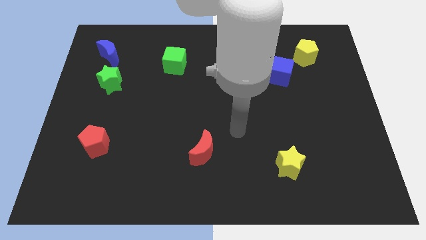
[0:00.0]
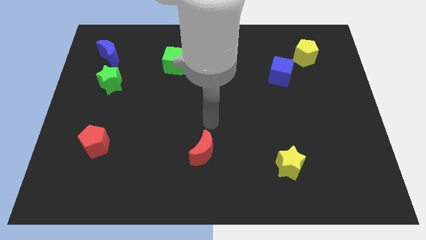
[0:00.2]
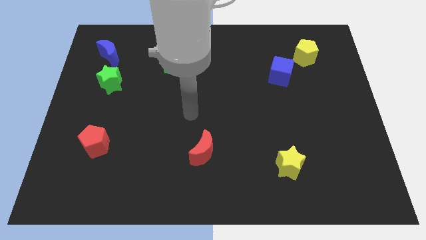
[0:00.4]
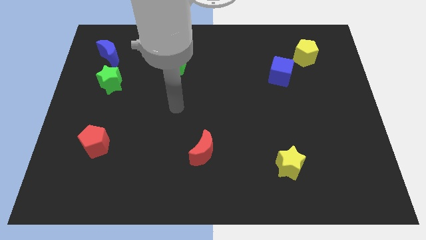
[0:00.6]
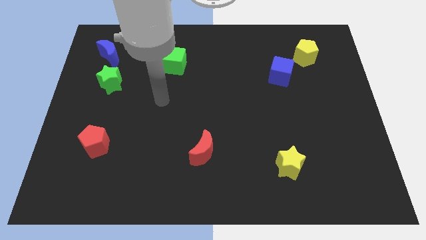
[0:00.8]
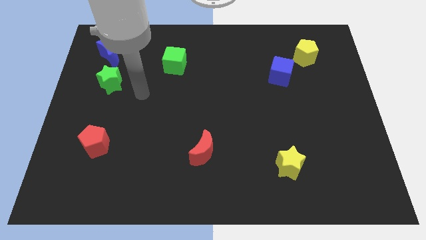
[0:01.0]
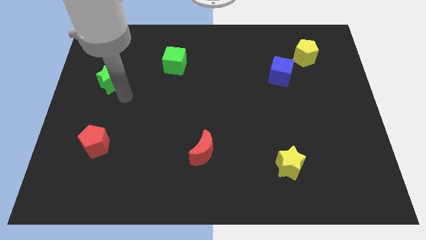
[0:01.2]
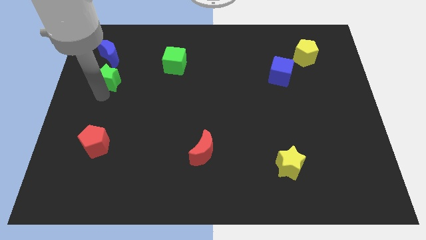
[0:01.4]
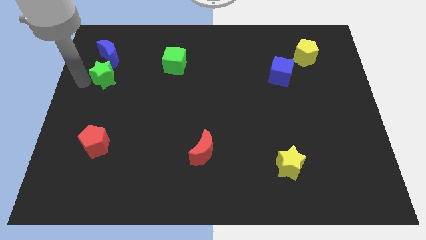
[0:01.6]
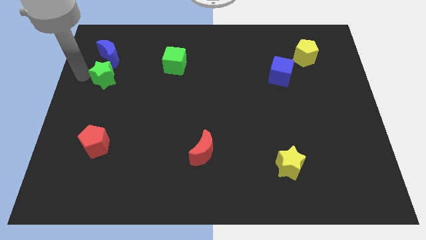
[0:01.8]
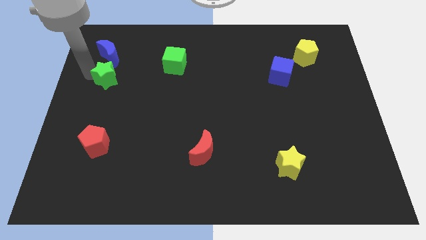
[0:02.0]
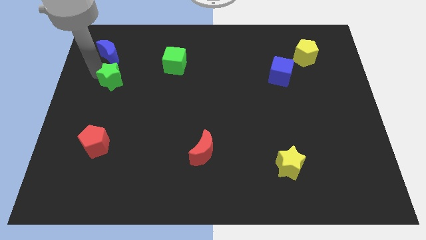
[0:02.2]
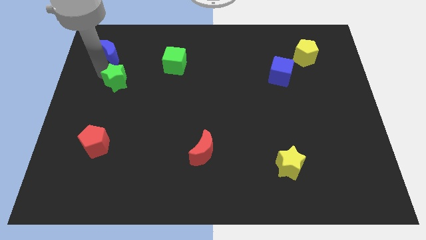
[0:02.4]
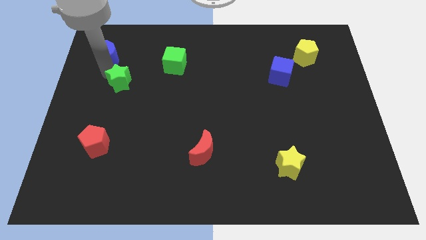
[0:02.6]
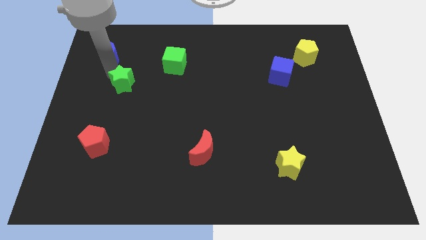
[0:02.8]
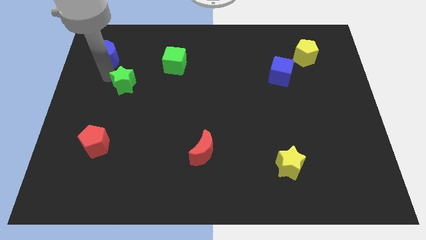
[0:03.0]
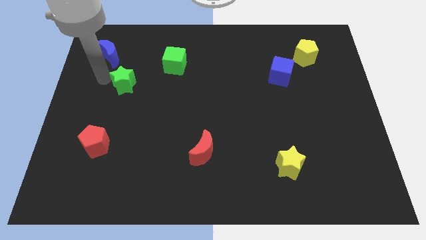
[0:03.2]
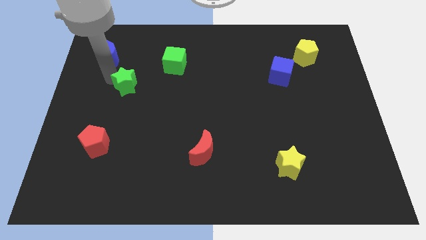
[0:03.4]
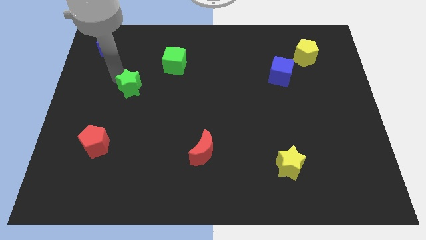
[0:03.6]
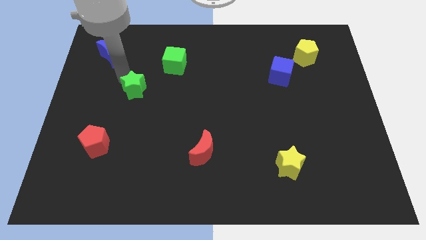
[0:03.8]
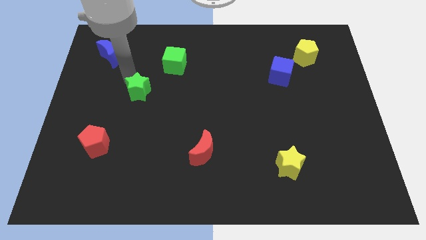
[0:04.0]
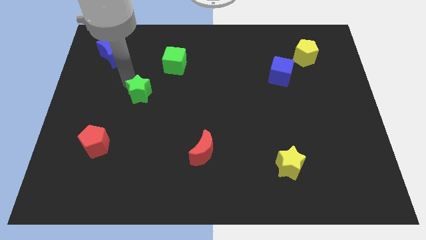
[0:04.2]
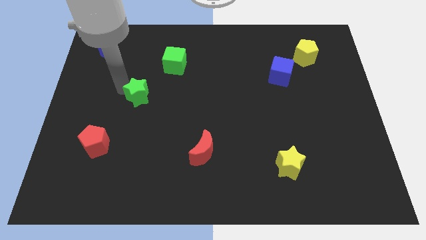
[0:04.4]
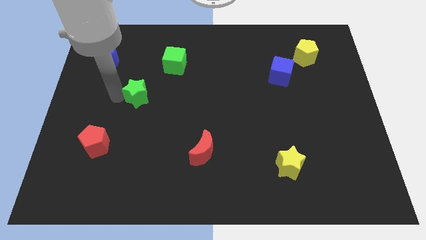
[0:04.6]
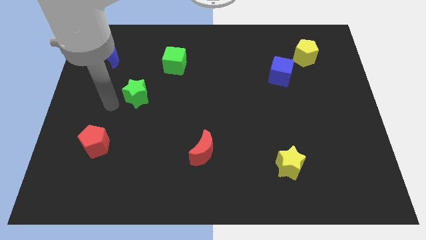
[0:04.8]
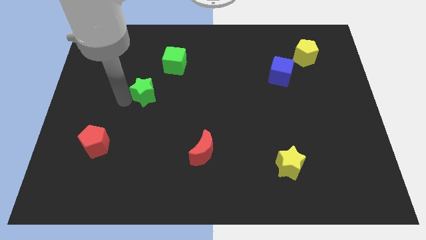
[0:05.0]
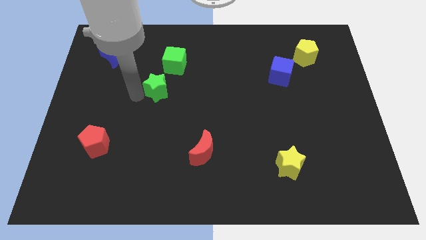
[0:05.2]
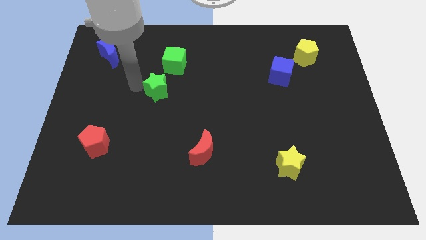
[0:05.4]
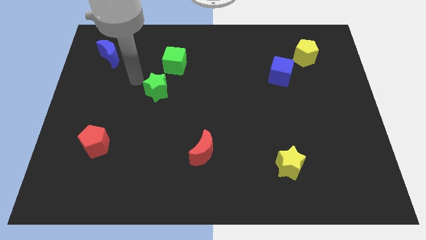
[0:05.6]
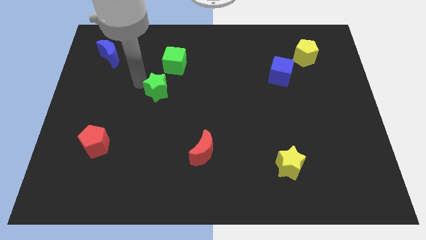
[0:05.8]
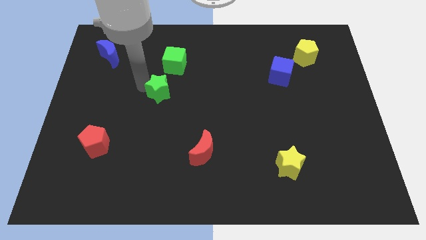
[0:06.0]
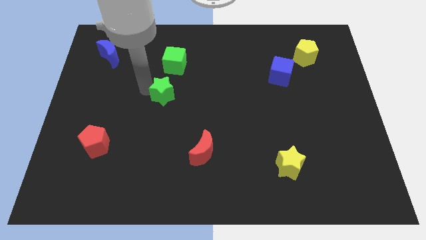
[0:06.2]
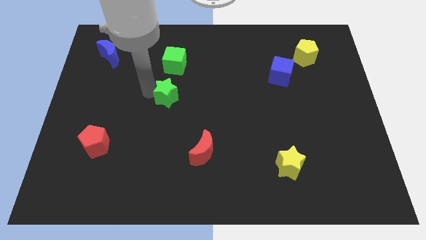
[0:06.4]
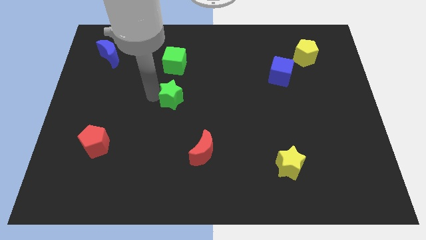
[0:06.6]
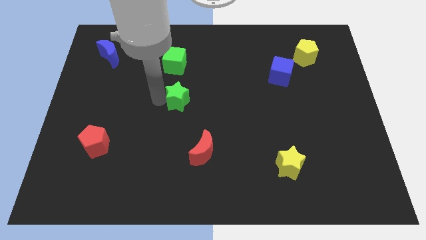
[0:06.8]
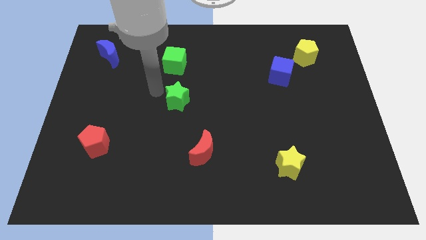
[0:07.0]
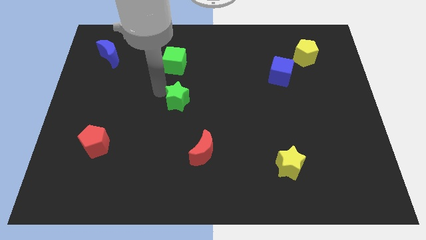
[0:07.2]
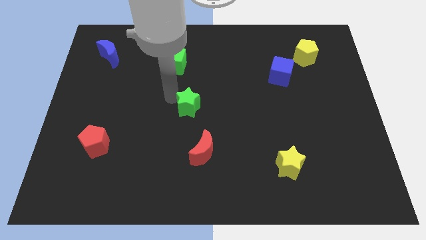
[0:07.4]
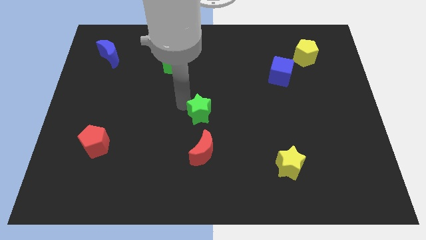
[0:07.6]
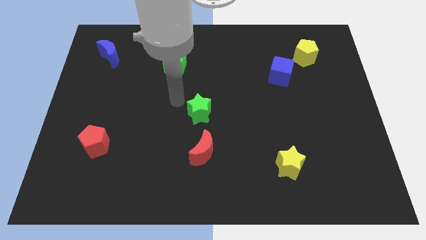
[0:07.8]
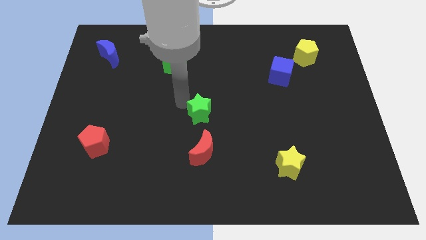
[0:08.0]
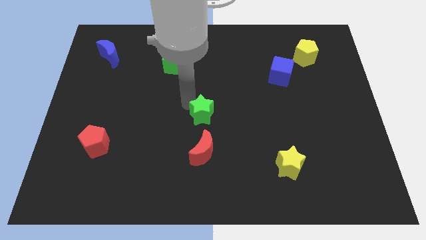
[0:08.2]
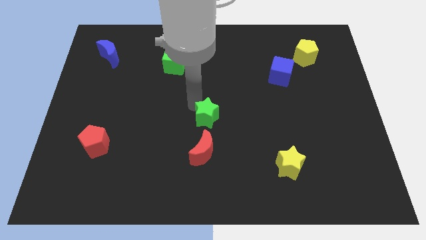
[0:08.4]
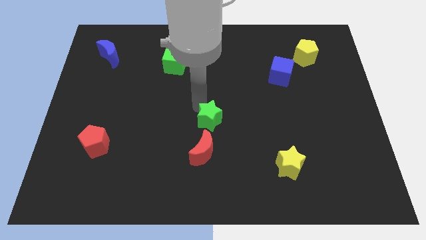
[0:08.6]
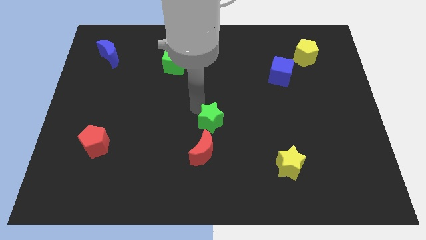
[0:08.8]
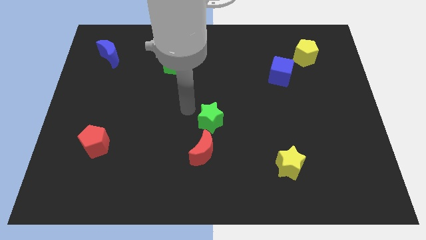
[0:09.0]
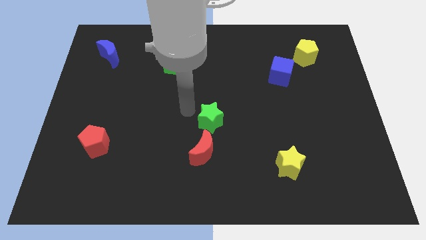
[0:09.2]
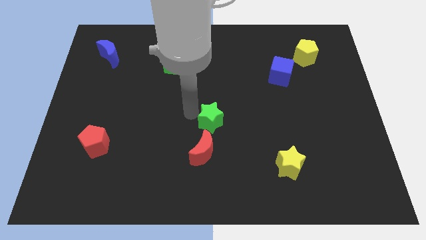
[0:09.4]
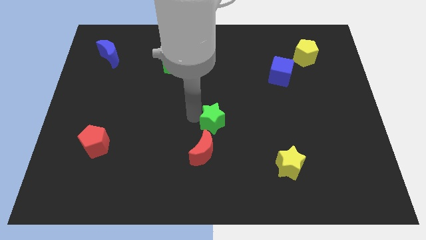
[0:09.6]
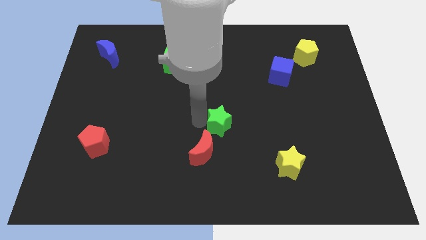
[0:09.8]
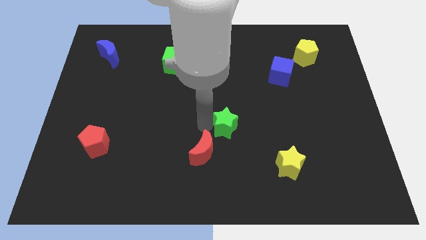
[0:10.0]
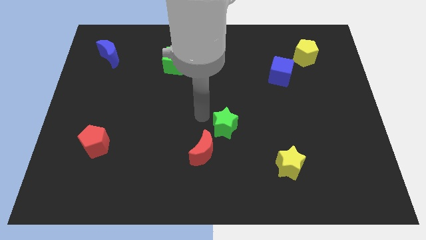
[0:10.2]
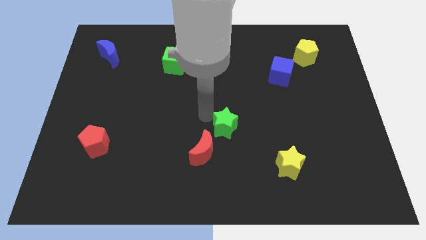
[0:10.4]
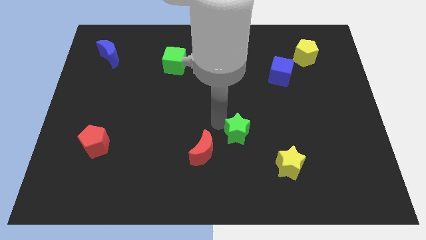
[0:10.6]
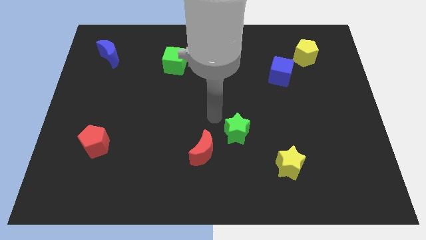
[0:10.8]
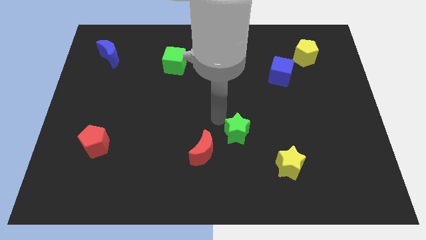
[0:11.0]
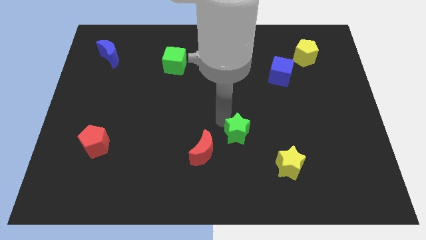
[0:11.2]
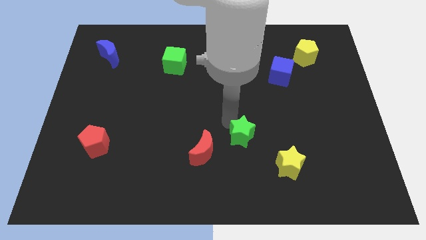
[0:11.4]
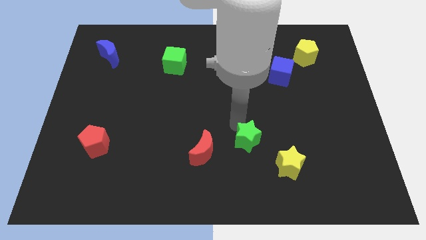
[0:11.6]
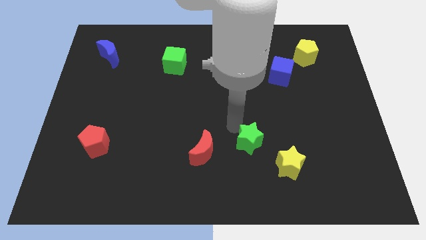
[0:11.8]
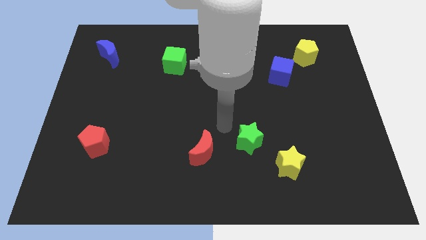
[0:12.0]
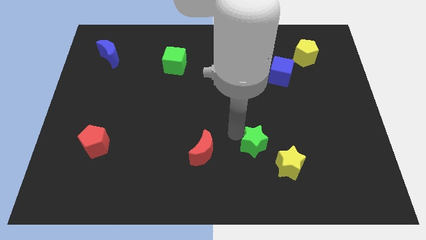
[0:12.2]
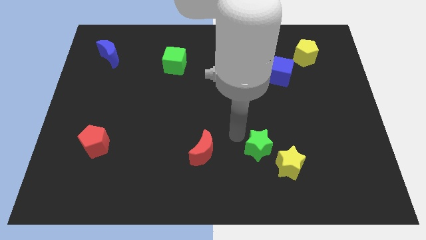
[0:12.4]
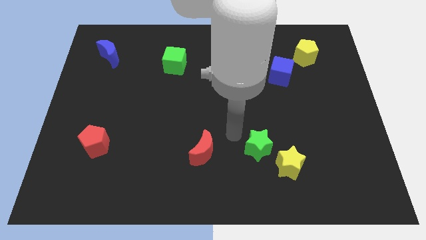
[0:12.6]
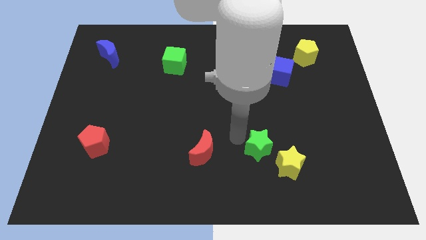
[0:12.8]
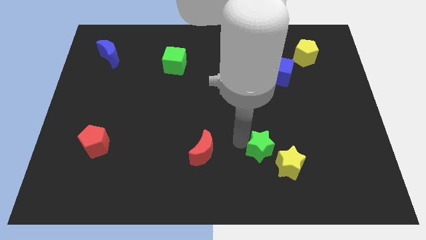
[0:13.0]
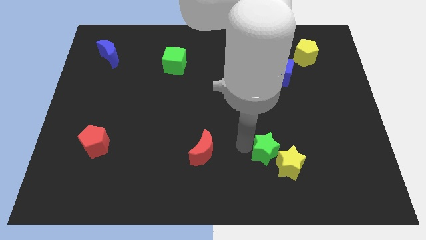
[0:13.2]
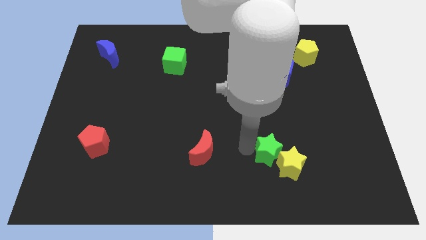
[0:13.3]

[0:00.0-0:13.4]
move the green star close to the yellow star

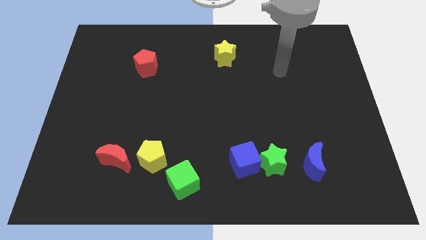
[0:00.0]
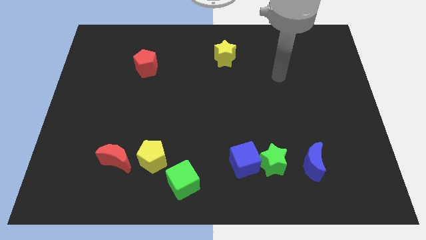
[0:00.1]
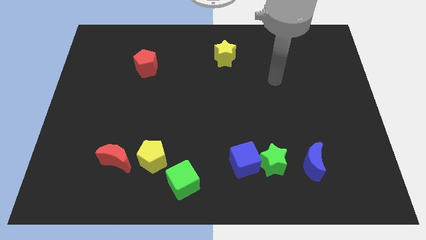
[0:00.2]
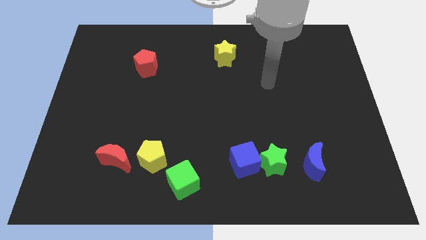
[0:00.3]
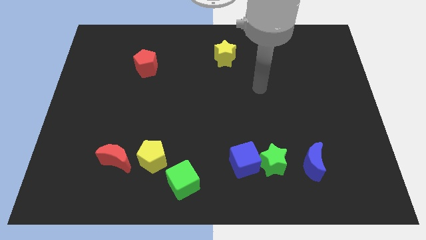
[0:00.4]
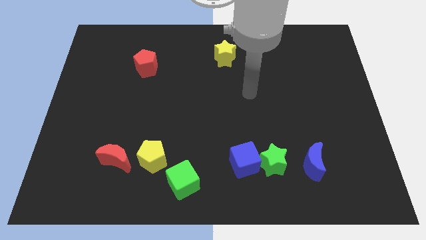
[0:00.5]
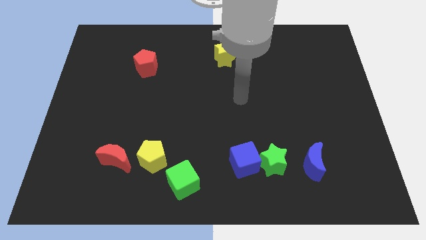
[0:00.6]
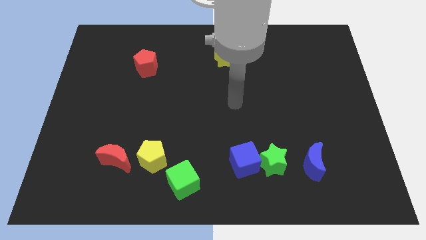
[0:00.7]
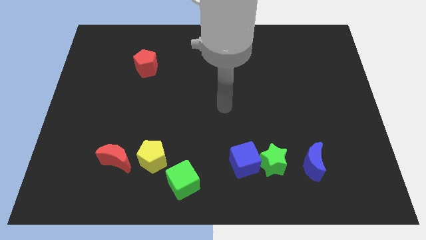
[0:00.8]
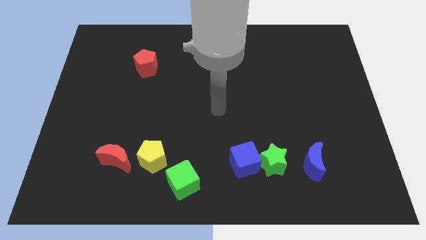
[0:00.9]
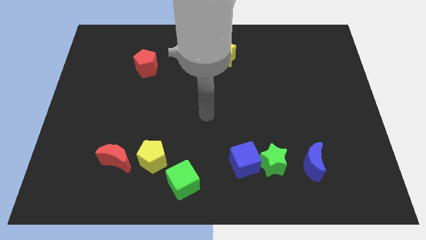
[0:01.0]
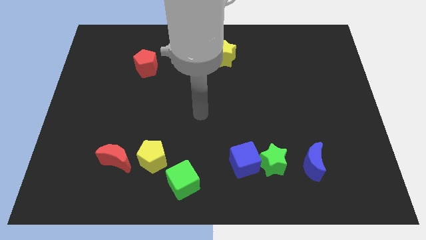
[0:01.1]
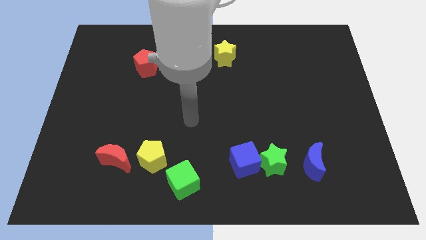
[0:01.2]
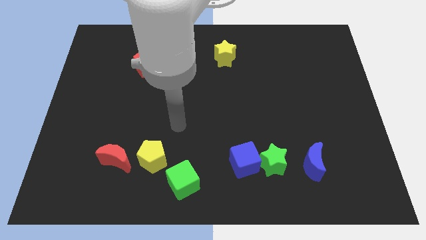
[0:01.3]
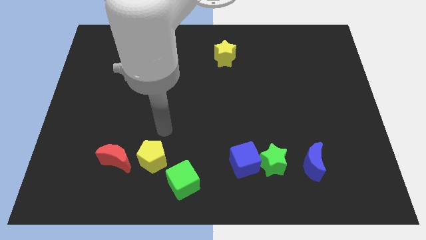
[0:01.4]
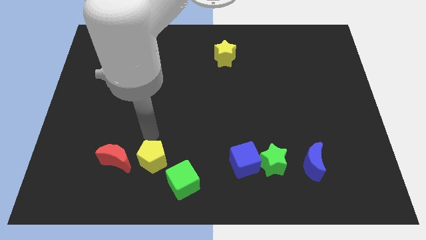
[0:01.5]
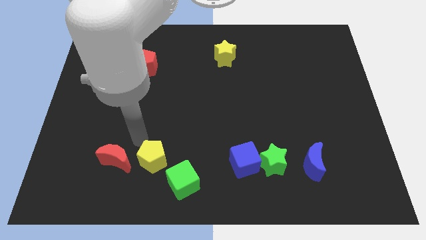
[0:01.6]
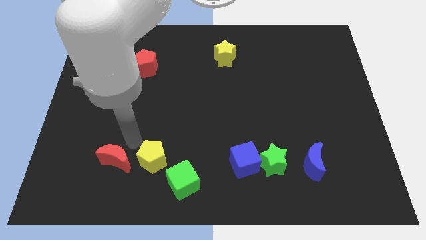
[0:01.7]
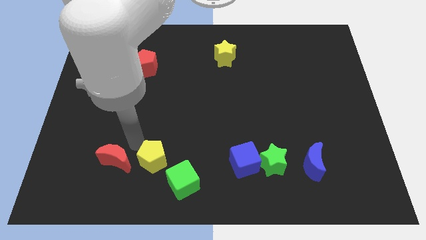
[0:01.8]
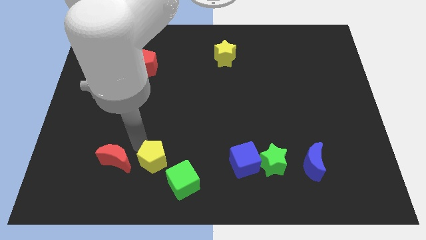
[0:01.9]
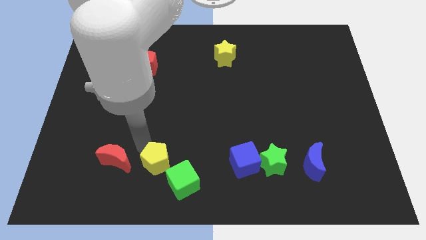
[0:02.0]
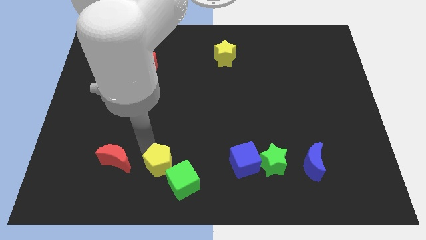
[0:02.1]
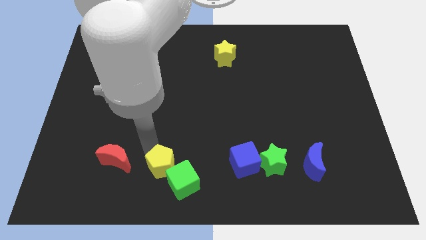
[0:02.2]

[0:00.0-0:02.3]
move the yellow pentagon close to the green cube
